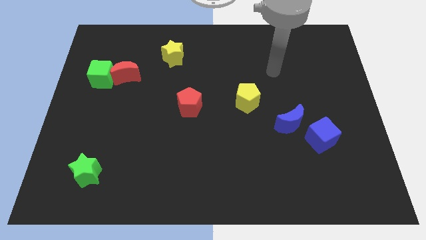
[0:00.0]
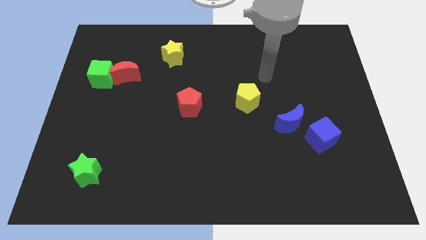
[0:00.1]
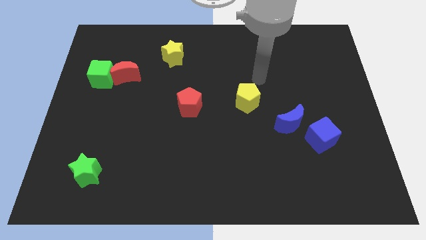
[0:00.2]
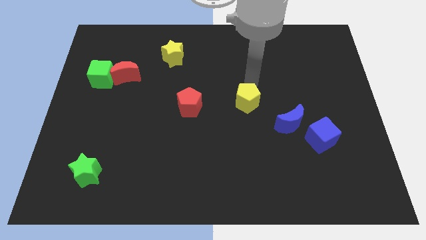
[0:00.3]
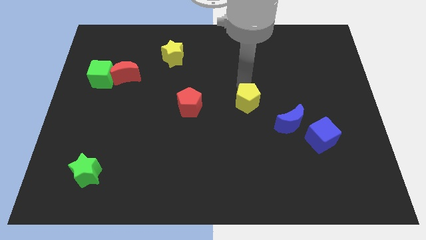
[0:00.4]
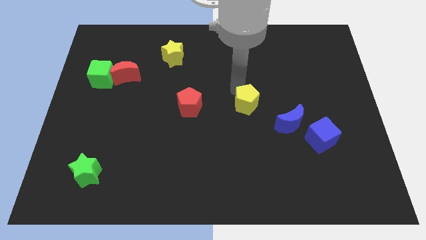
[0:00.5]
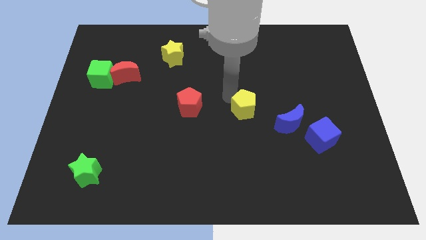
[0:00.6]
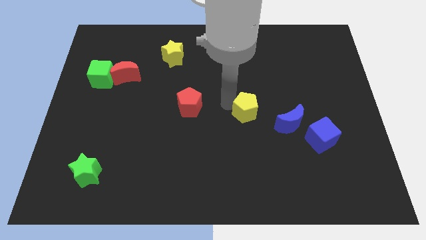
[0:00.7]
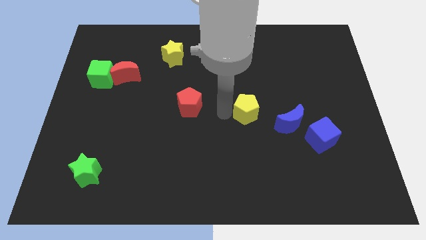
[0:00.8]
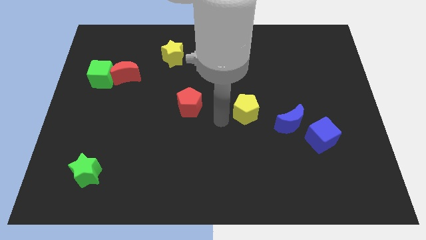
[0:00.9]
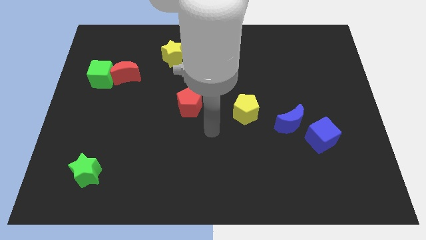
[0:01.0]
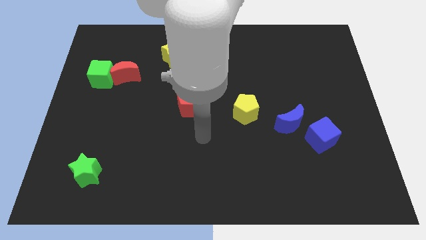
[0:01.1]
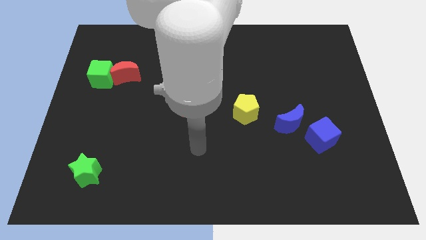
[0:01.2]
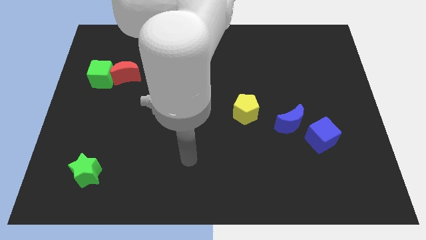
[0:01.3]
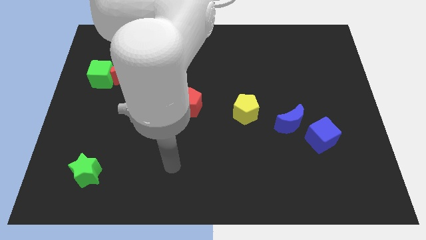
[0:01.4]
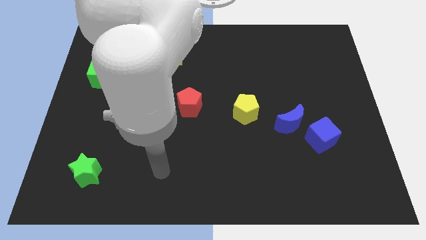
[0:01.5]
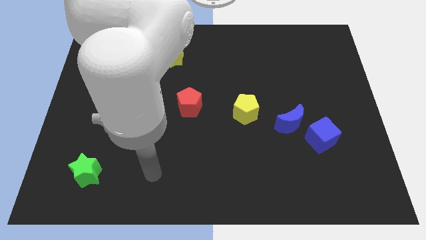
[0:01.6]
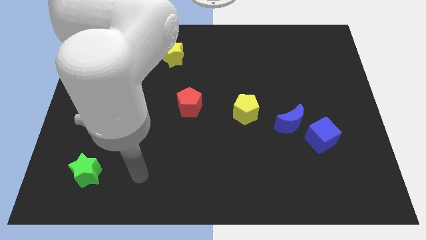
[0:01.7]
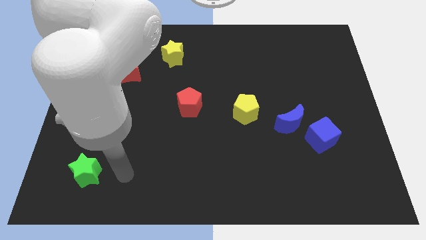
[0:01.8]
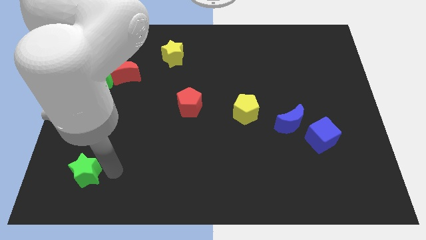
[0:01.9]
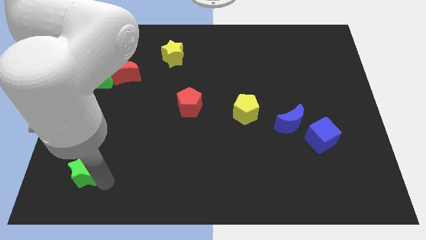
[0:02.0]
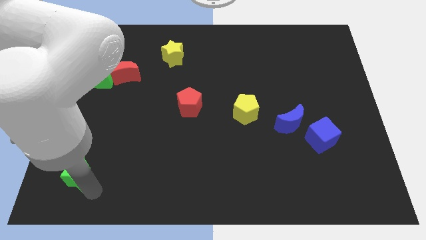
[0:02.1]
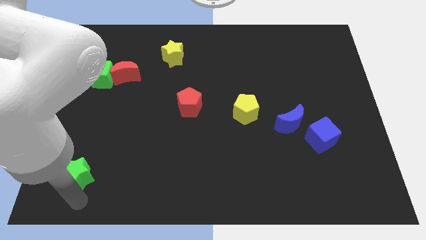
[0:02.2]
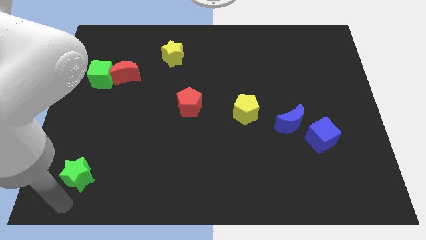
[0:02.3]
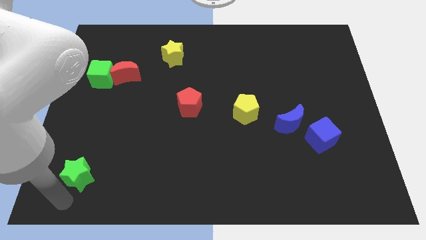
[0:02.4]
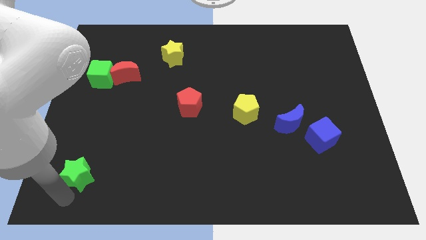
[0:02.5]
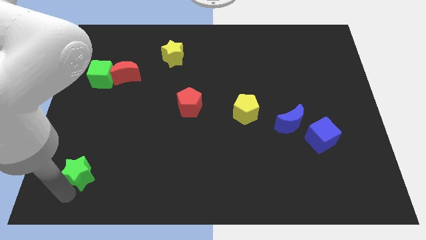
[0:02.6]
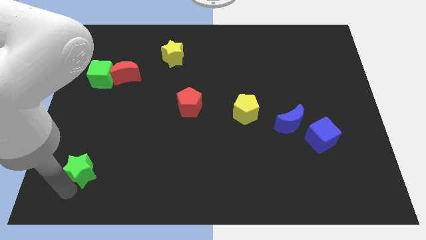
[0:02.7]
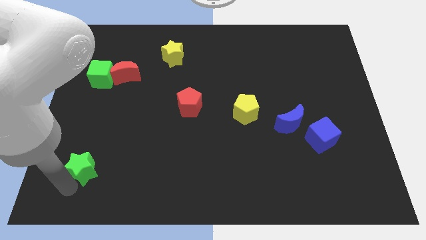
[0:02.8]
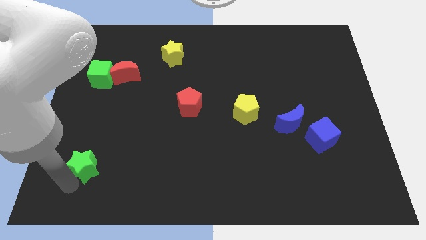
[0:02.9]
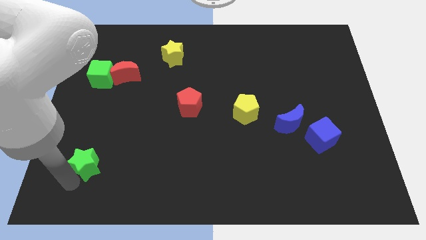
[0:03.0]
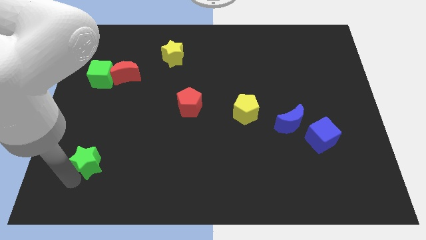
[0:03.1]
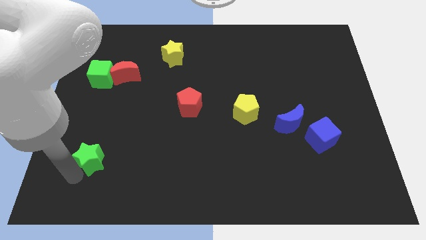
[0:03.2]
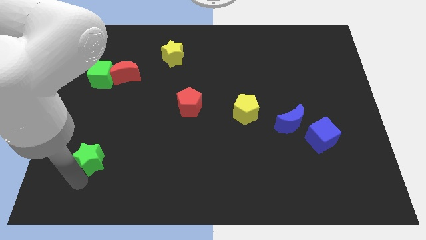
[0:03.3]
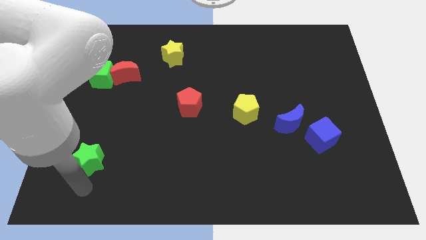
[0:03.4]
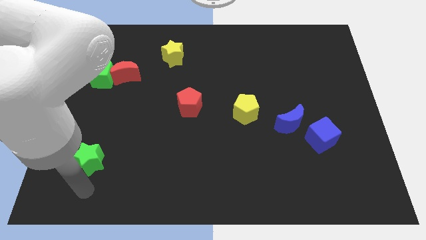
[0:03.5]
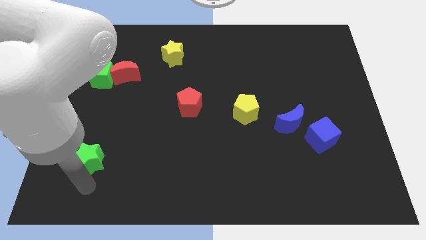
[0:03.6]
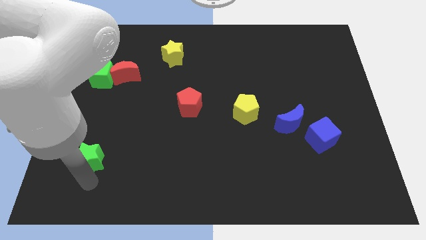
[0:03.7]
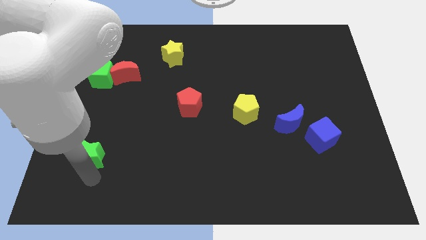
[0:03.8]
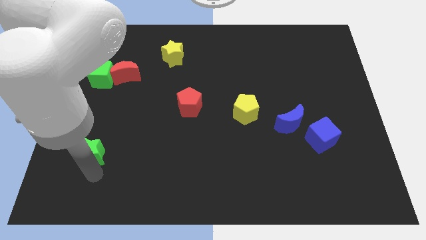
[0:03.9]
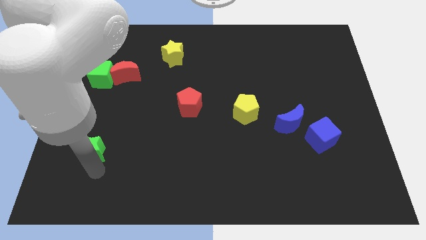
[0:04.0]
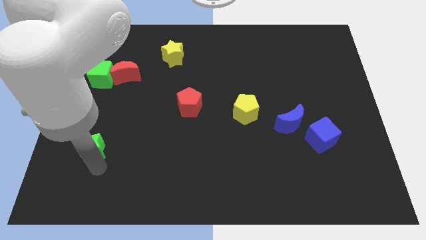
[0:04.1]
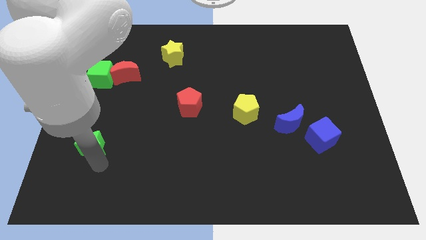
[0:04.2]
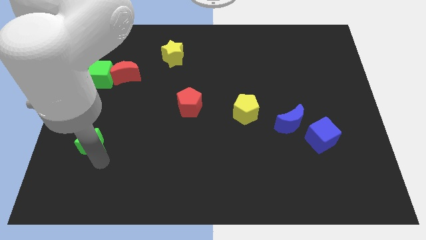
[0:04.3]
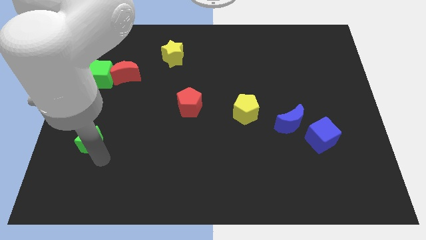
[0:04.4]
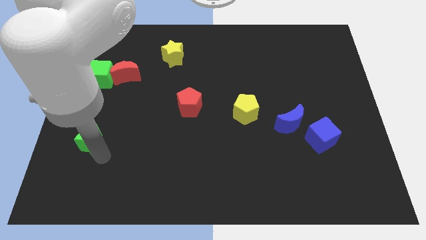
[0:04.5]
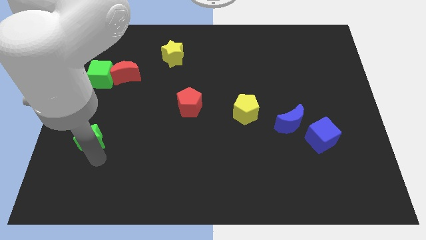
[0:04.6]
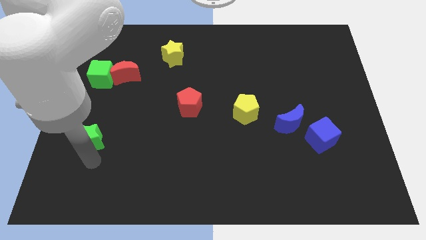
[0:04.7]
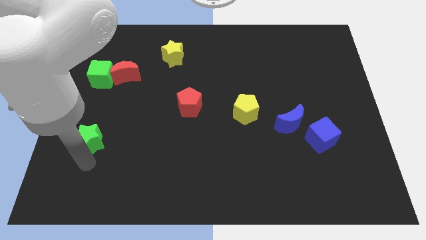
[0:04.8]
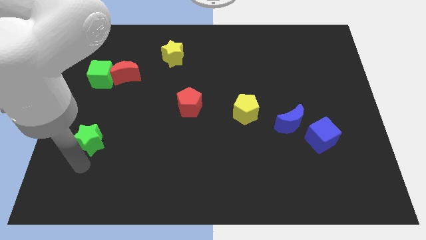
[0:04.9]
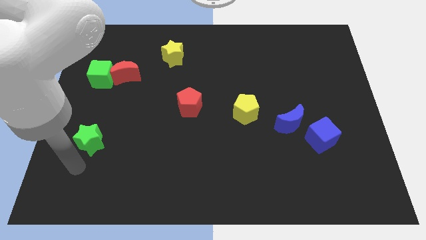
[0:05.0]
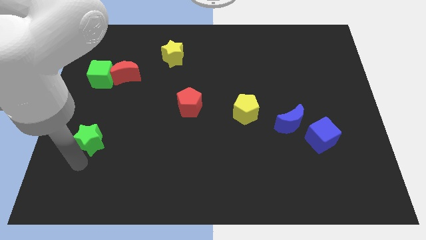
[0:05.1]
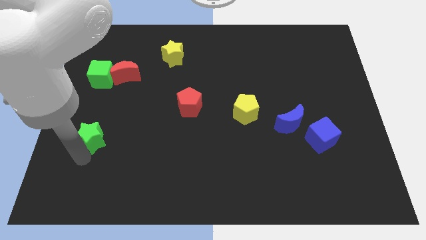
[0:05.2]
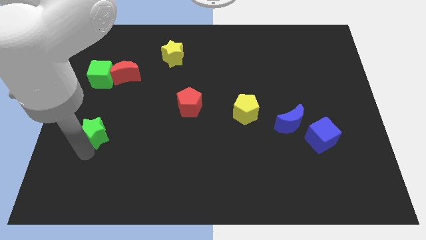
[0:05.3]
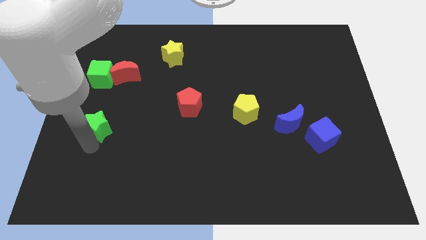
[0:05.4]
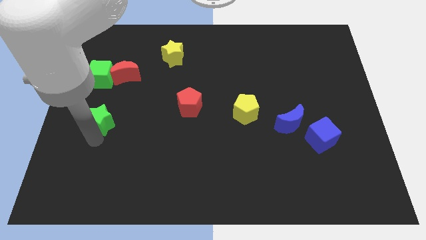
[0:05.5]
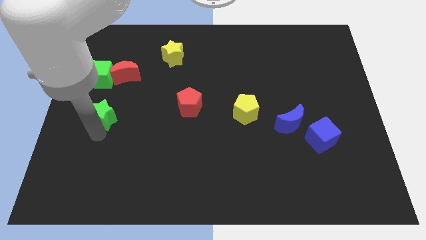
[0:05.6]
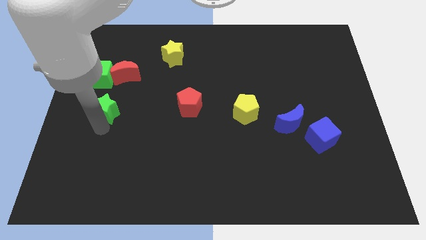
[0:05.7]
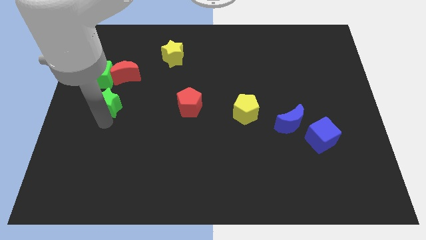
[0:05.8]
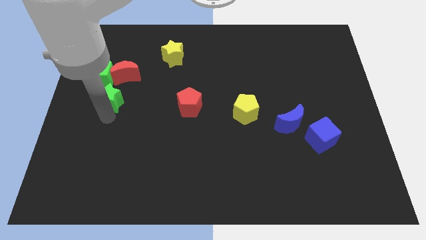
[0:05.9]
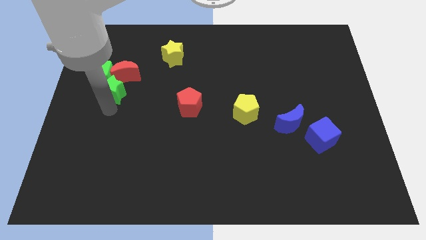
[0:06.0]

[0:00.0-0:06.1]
push the green star to the red moon

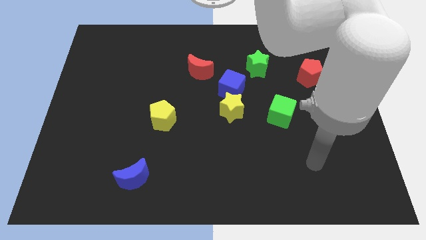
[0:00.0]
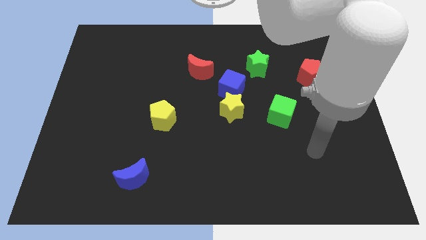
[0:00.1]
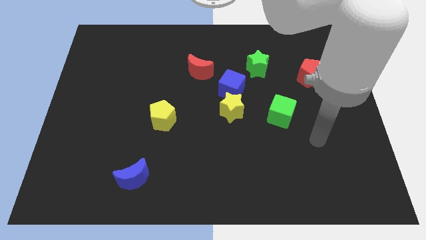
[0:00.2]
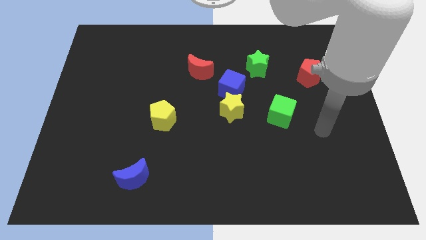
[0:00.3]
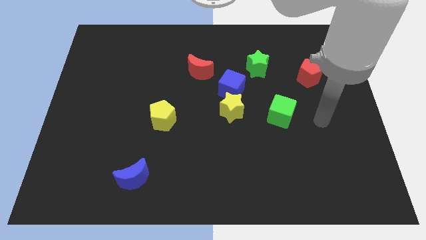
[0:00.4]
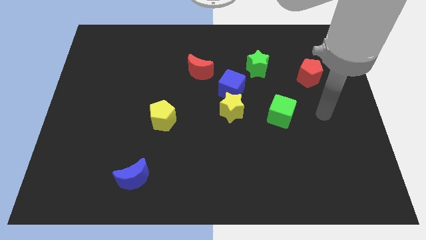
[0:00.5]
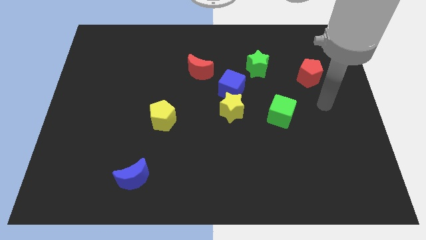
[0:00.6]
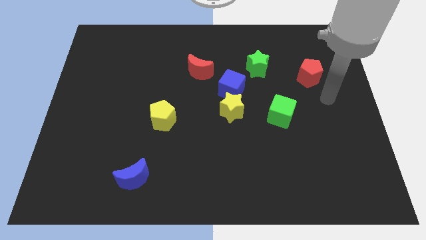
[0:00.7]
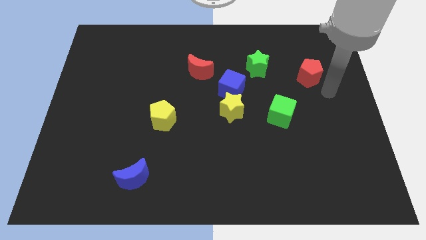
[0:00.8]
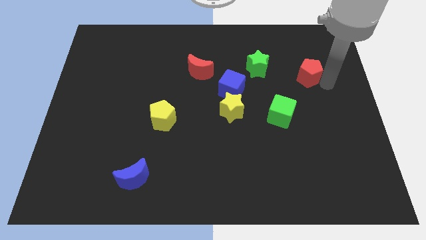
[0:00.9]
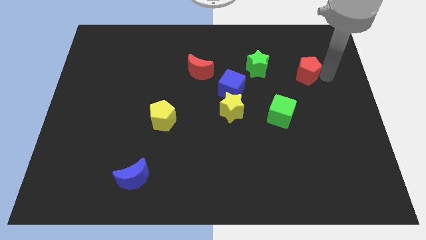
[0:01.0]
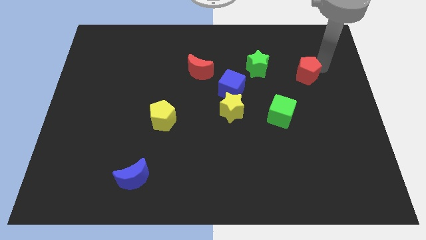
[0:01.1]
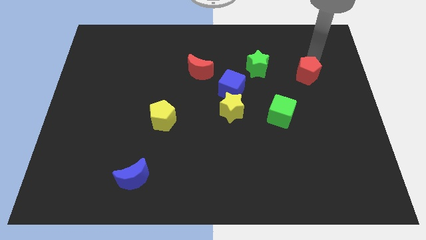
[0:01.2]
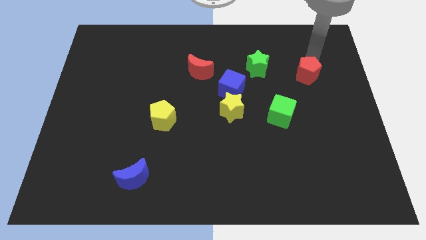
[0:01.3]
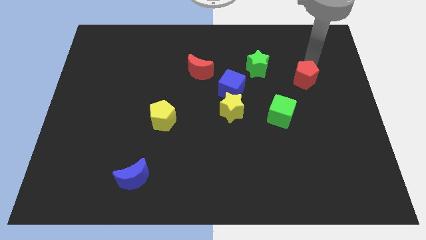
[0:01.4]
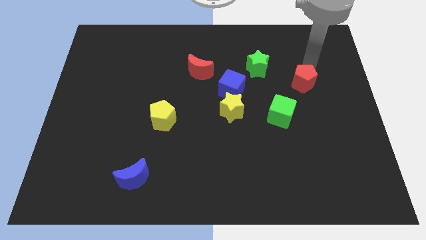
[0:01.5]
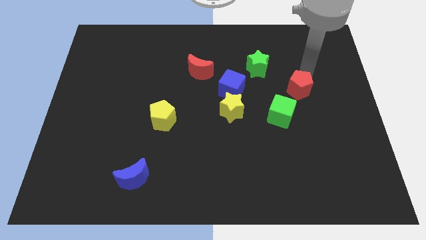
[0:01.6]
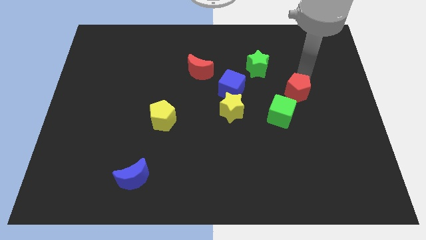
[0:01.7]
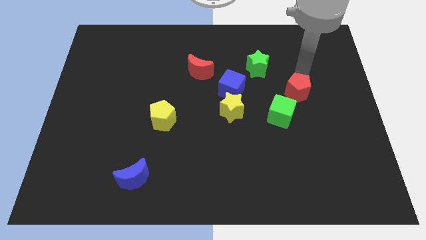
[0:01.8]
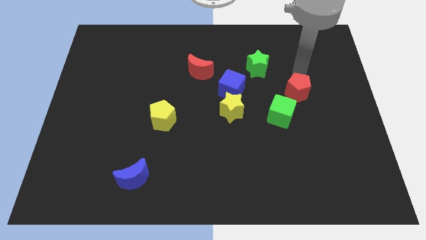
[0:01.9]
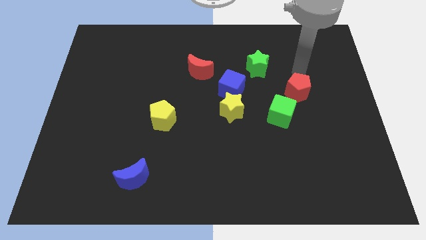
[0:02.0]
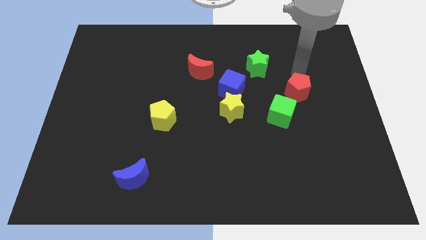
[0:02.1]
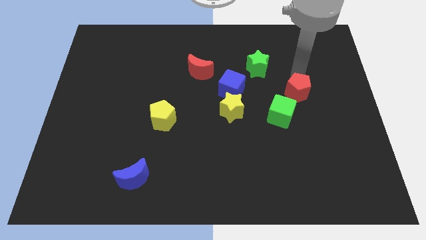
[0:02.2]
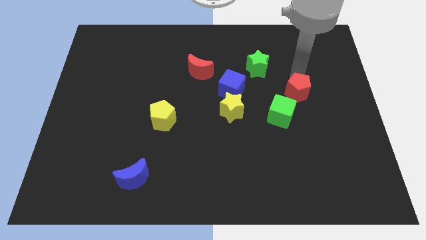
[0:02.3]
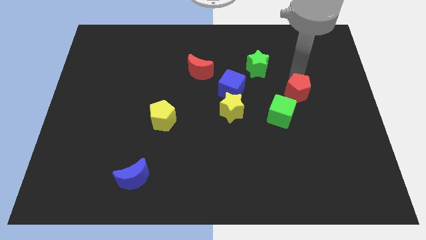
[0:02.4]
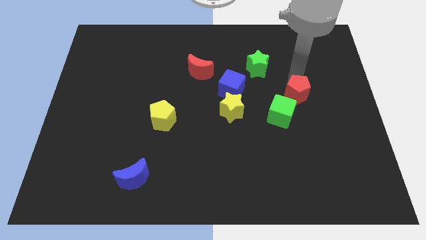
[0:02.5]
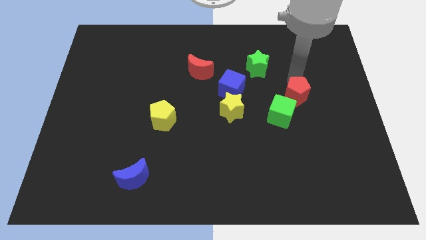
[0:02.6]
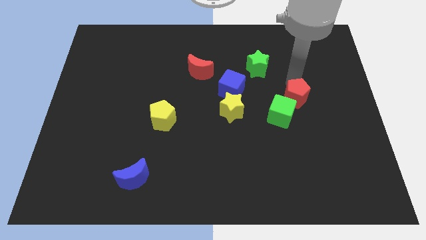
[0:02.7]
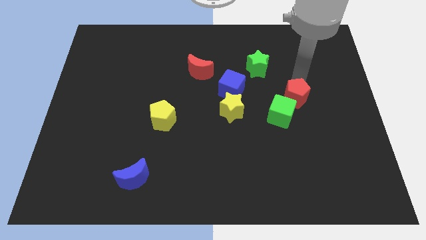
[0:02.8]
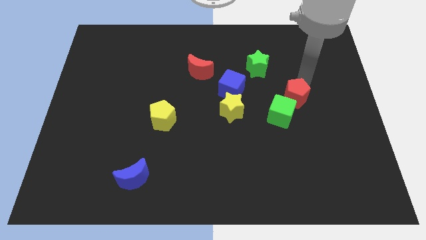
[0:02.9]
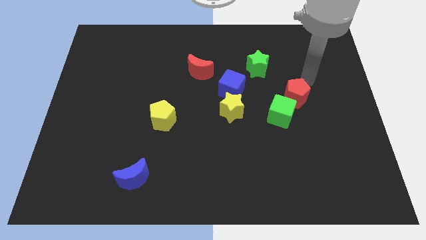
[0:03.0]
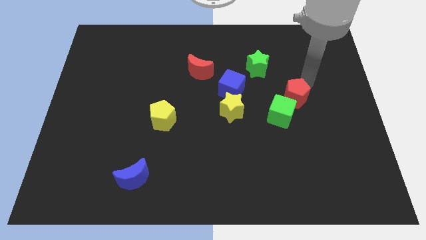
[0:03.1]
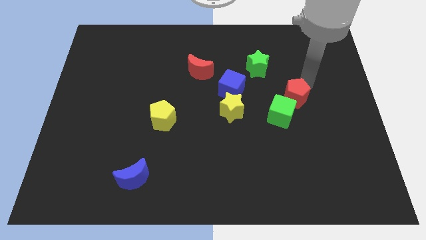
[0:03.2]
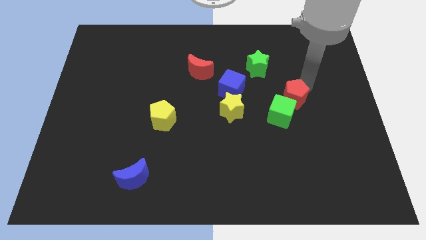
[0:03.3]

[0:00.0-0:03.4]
push the red pentagon next to the green cube
